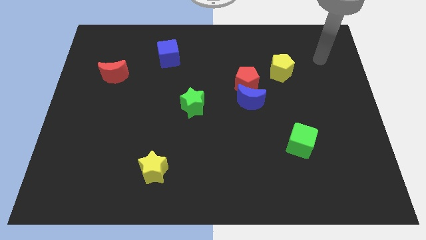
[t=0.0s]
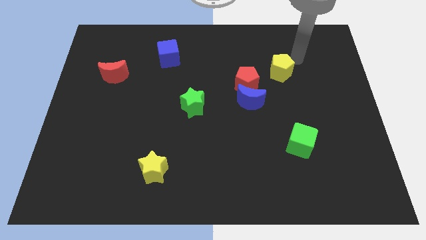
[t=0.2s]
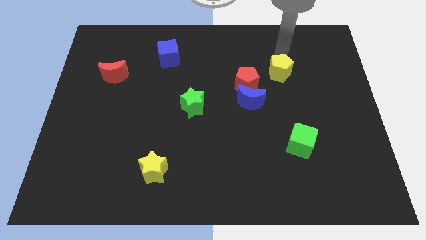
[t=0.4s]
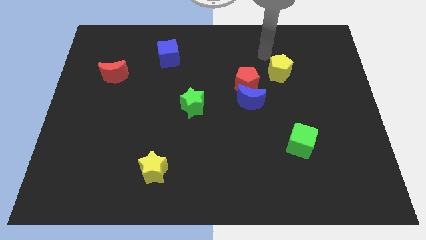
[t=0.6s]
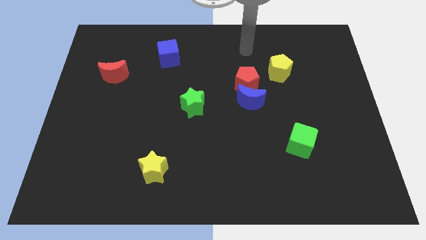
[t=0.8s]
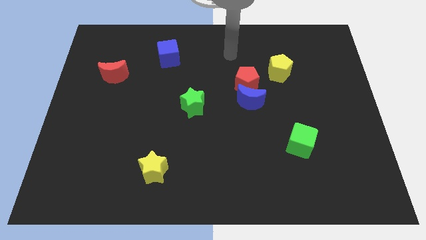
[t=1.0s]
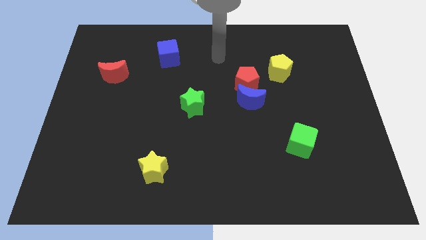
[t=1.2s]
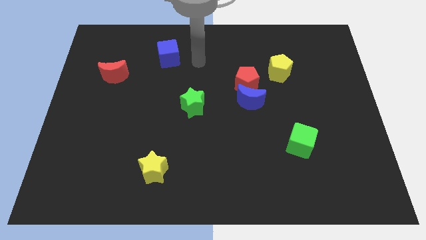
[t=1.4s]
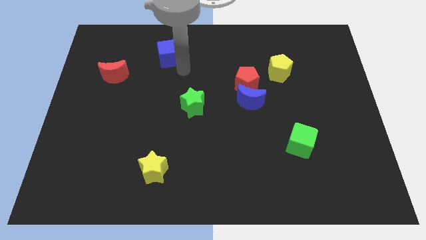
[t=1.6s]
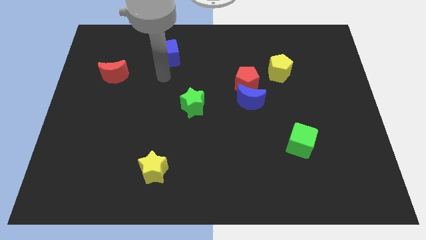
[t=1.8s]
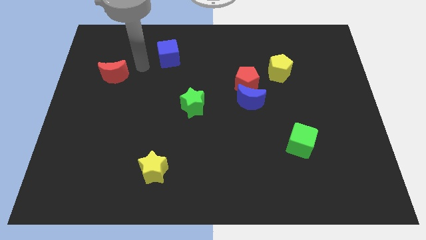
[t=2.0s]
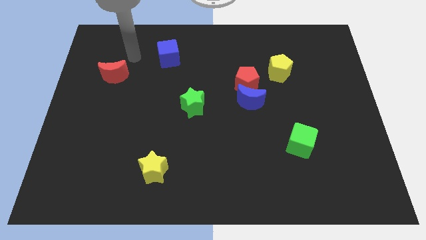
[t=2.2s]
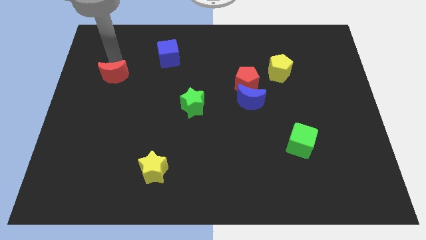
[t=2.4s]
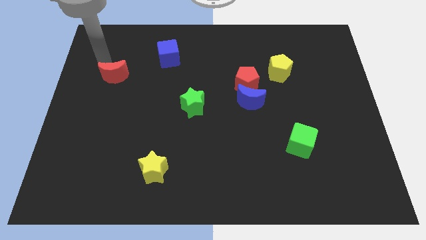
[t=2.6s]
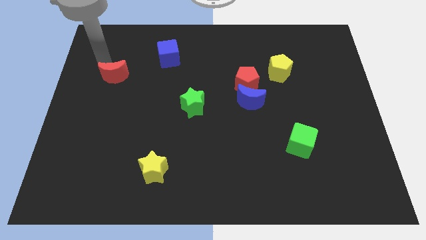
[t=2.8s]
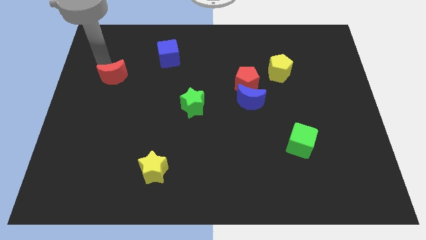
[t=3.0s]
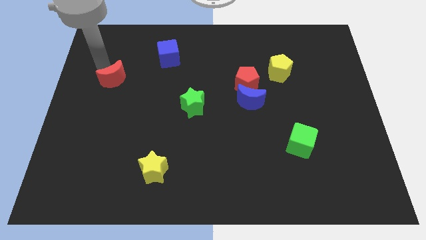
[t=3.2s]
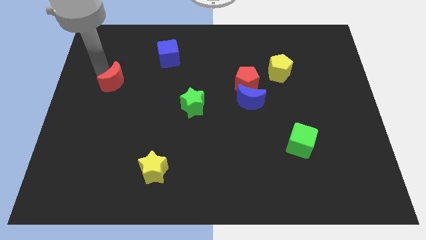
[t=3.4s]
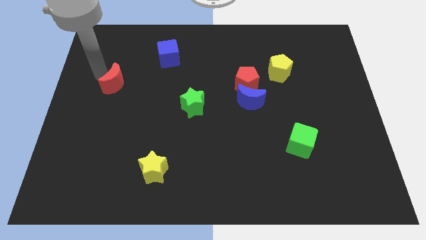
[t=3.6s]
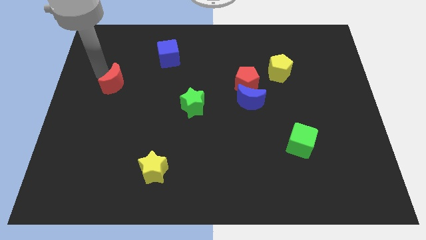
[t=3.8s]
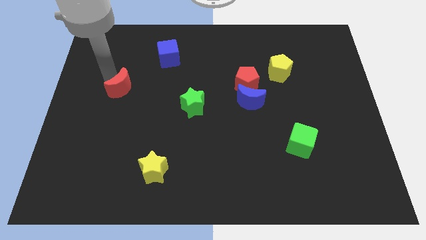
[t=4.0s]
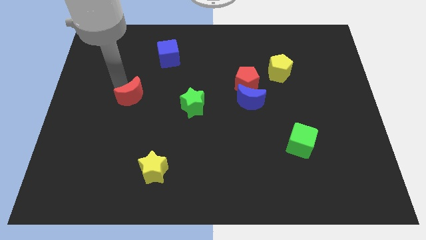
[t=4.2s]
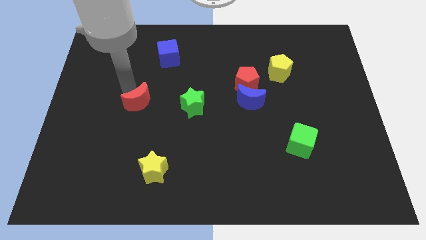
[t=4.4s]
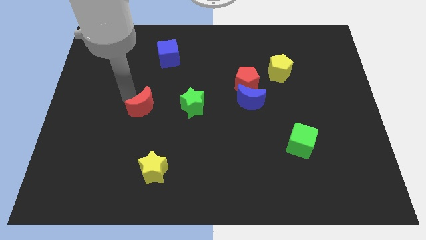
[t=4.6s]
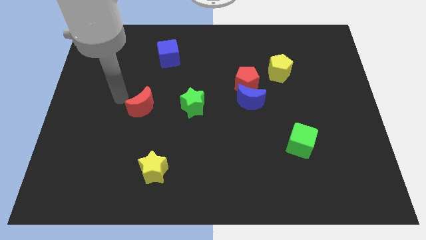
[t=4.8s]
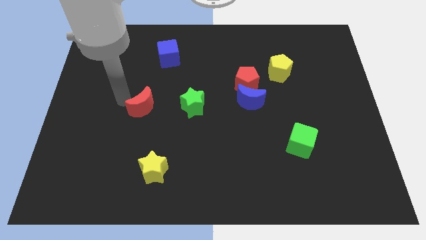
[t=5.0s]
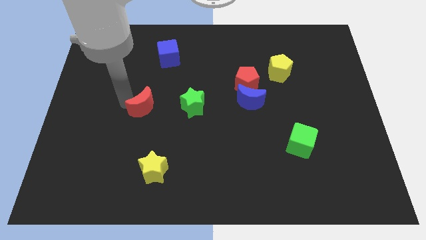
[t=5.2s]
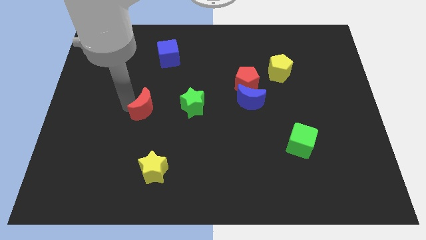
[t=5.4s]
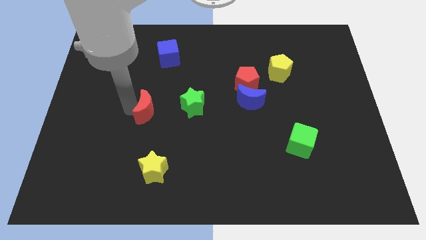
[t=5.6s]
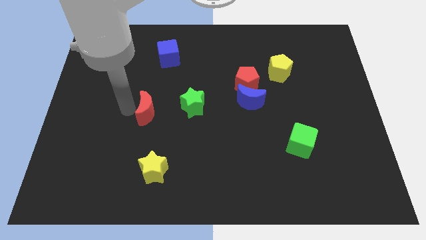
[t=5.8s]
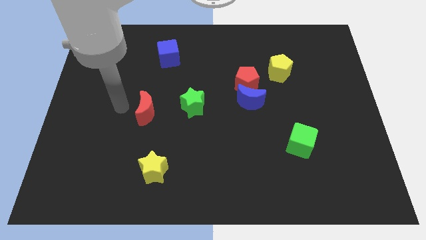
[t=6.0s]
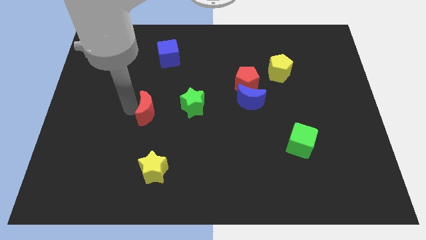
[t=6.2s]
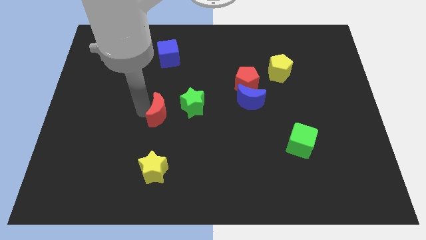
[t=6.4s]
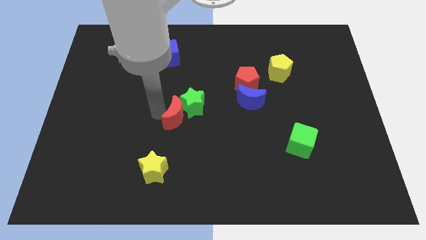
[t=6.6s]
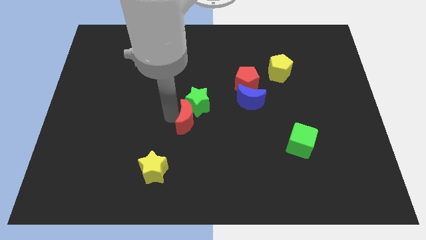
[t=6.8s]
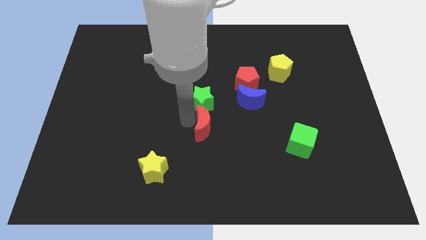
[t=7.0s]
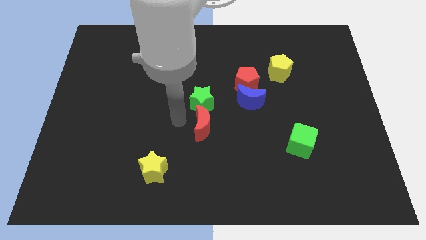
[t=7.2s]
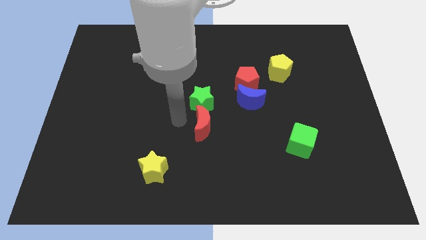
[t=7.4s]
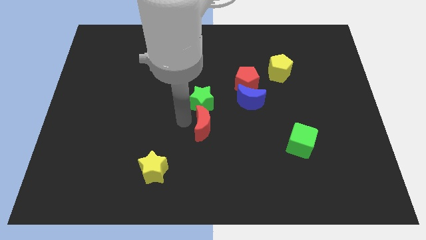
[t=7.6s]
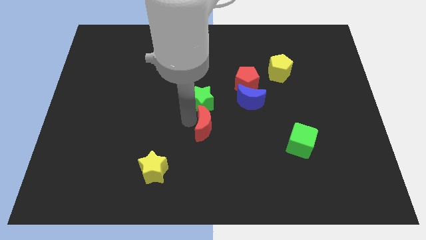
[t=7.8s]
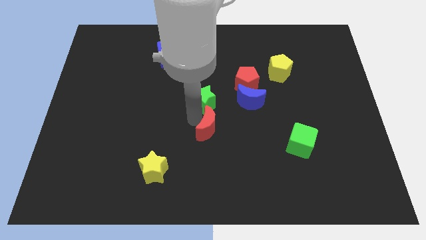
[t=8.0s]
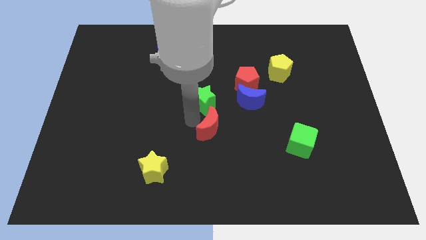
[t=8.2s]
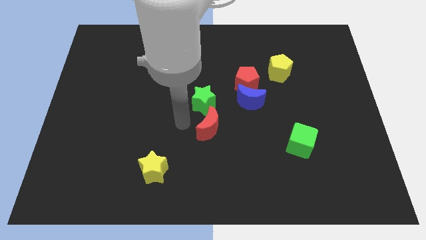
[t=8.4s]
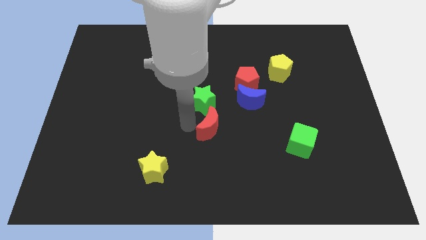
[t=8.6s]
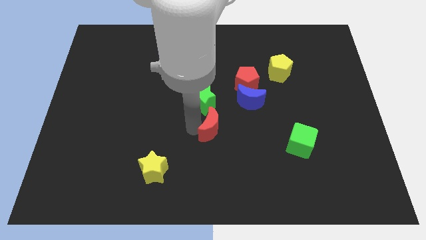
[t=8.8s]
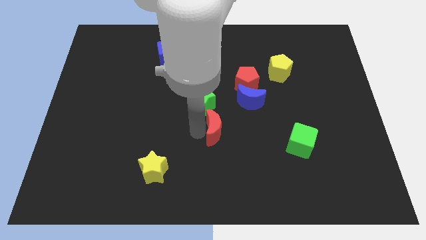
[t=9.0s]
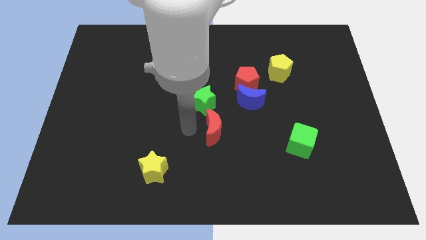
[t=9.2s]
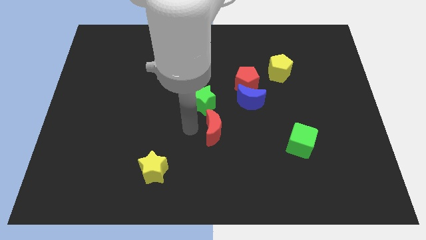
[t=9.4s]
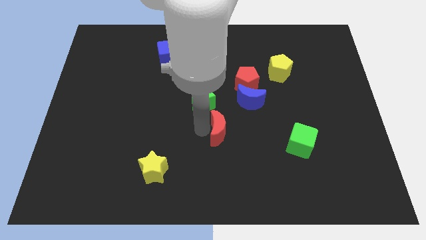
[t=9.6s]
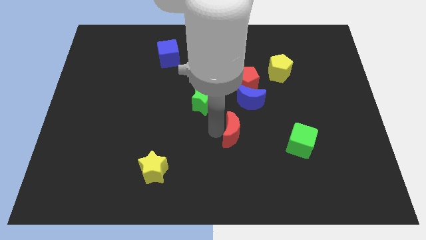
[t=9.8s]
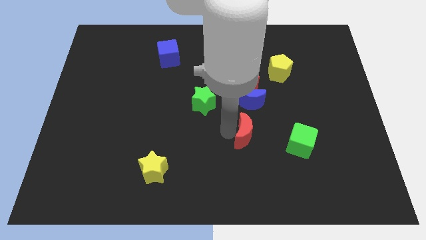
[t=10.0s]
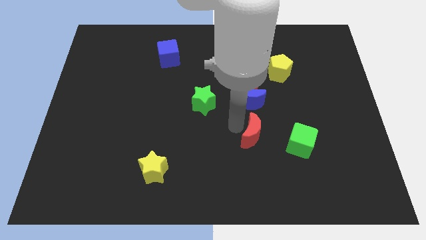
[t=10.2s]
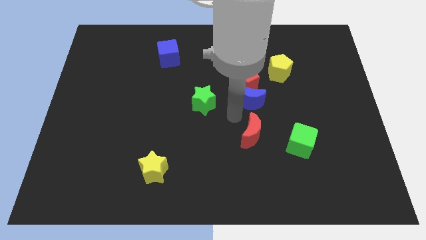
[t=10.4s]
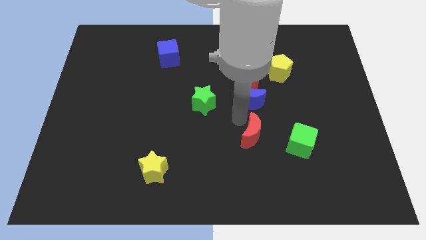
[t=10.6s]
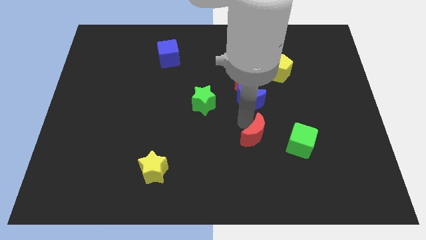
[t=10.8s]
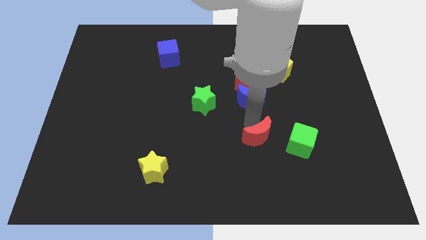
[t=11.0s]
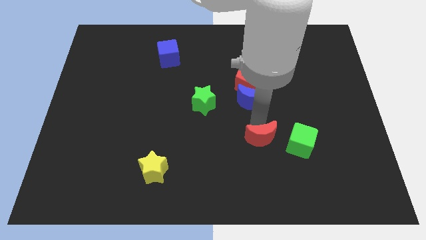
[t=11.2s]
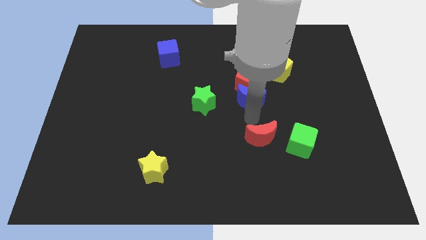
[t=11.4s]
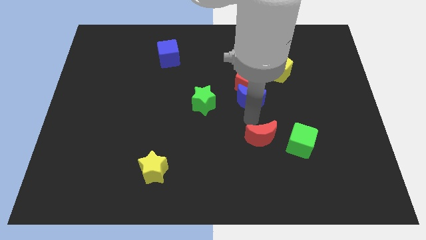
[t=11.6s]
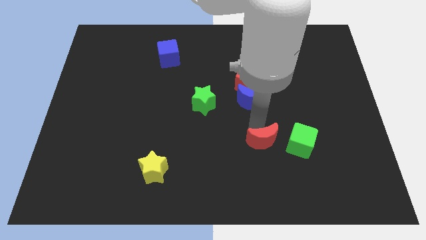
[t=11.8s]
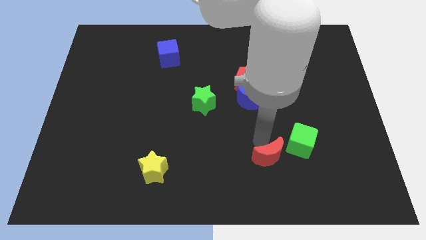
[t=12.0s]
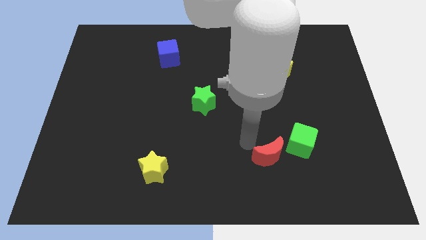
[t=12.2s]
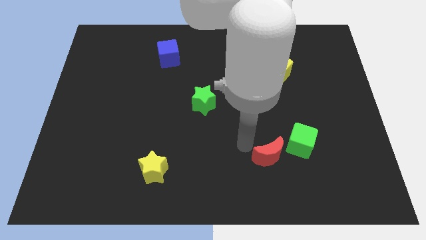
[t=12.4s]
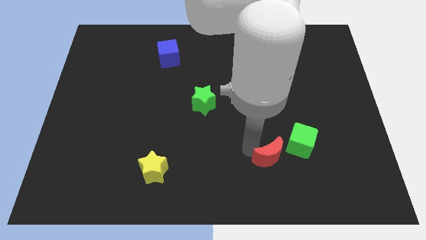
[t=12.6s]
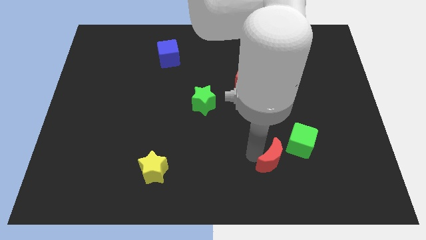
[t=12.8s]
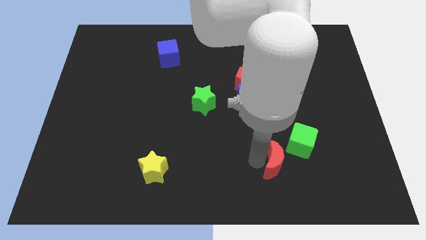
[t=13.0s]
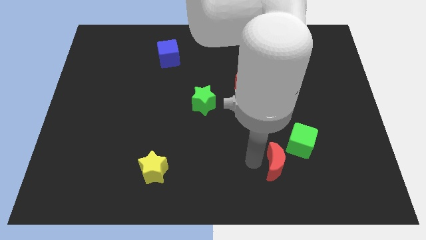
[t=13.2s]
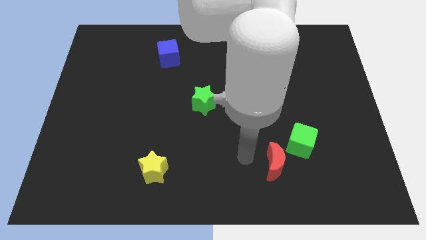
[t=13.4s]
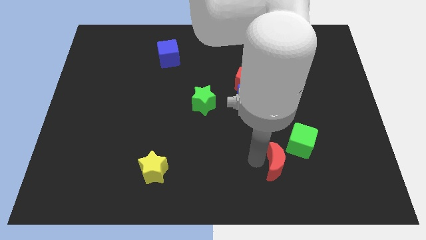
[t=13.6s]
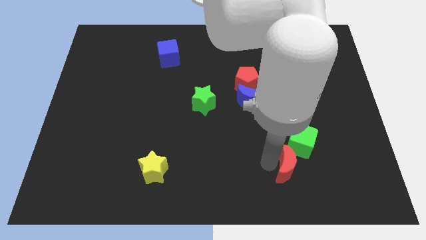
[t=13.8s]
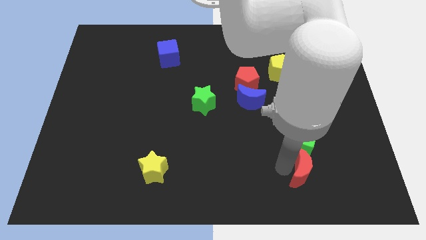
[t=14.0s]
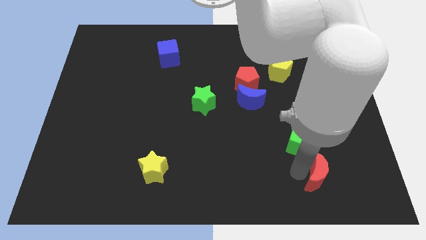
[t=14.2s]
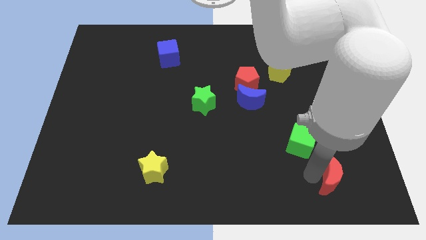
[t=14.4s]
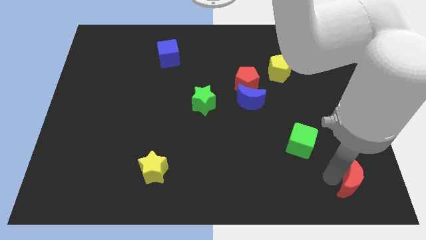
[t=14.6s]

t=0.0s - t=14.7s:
put the red moon to the bottom right
